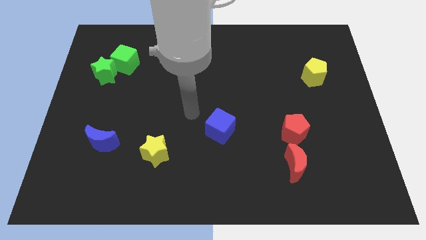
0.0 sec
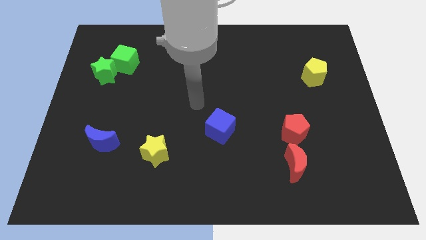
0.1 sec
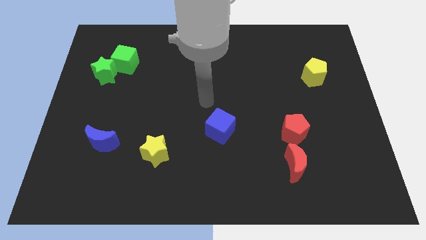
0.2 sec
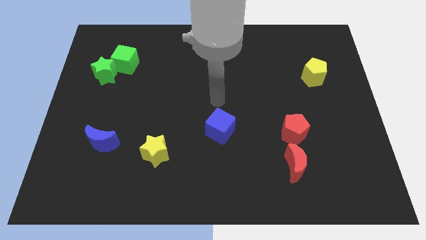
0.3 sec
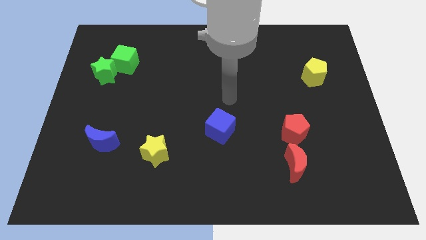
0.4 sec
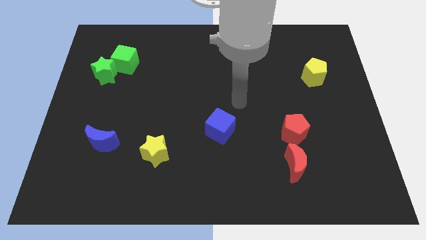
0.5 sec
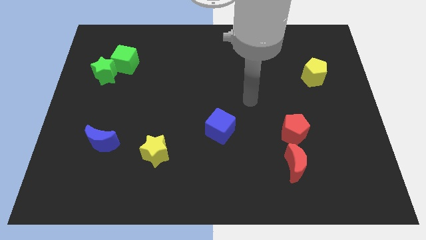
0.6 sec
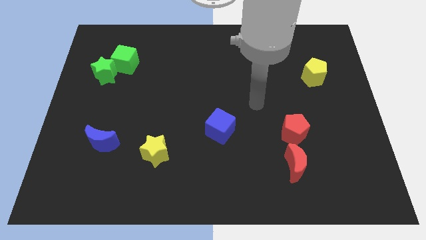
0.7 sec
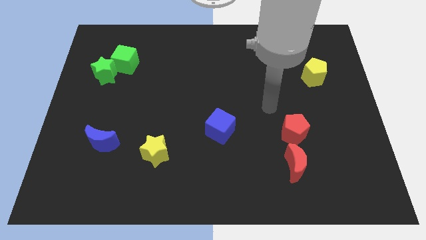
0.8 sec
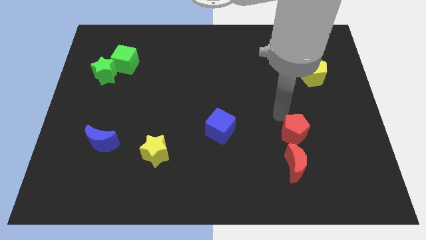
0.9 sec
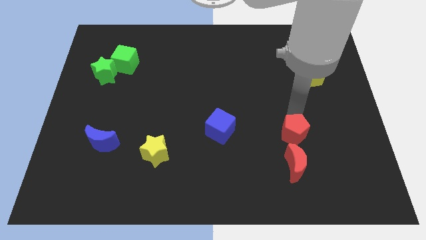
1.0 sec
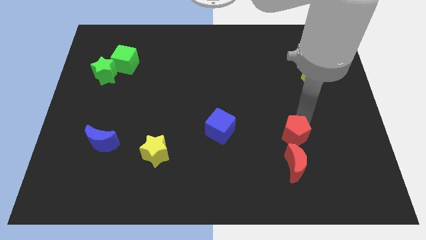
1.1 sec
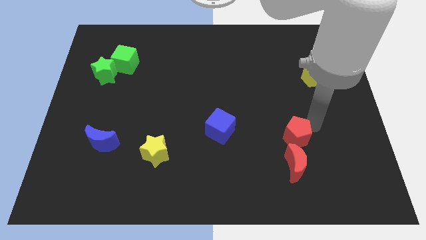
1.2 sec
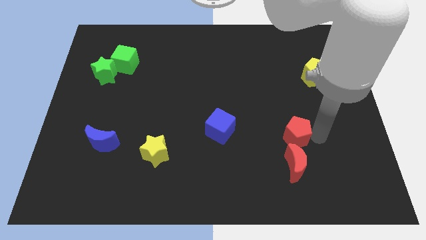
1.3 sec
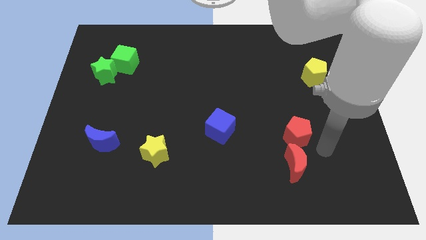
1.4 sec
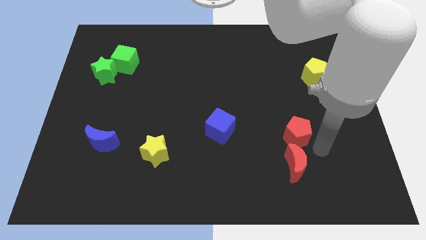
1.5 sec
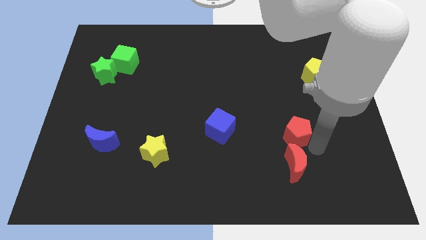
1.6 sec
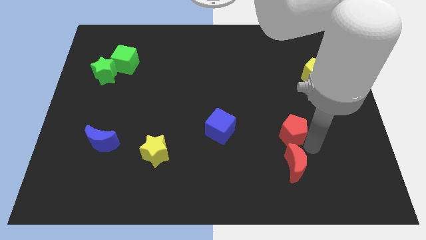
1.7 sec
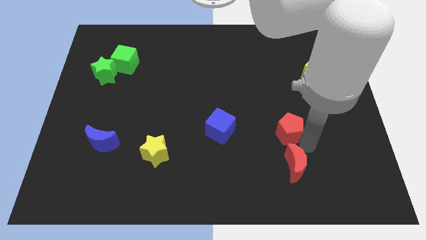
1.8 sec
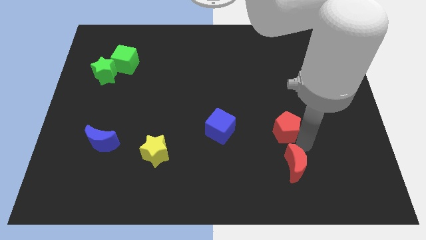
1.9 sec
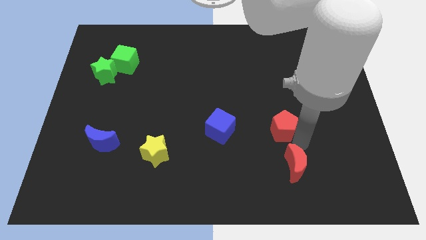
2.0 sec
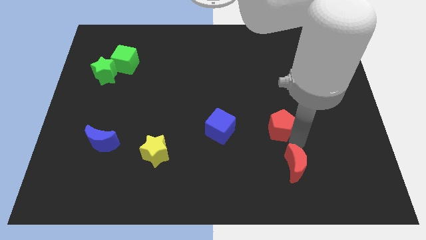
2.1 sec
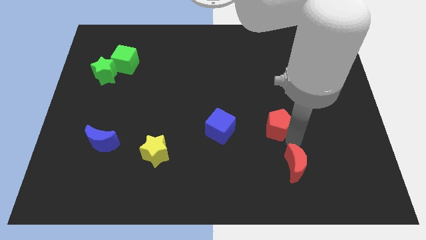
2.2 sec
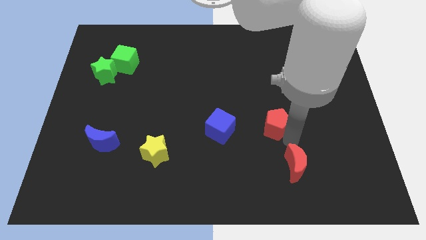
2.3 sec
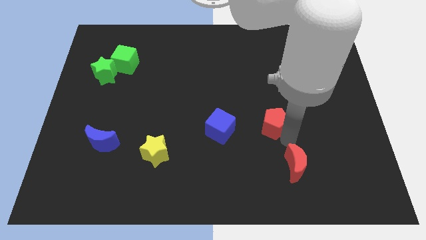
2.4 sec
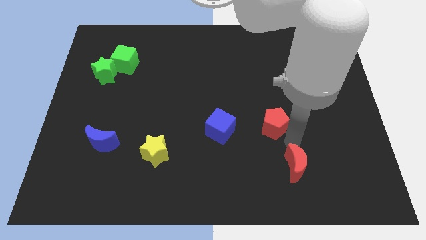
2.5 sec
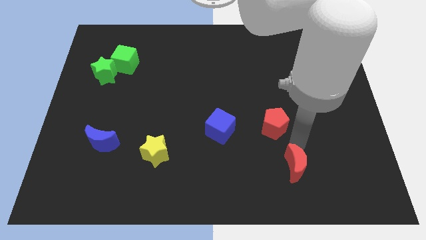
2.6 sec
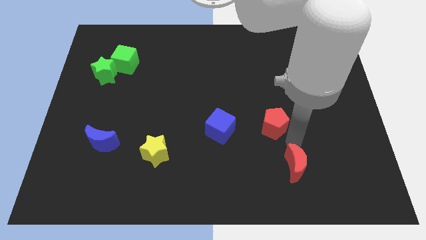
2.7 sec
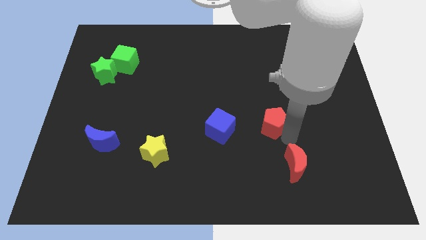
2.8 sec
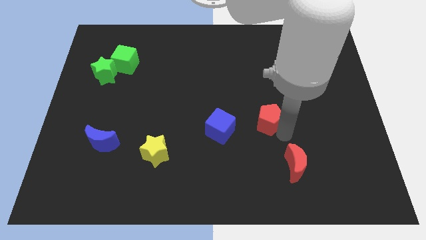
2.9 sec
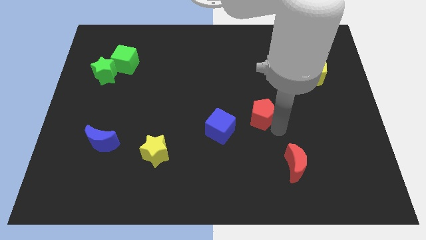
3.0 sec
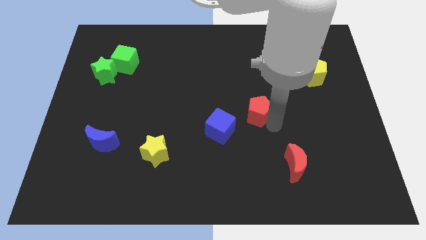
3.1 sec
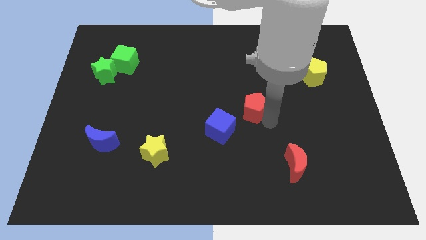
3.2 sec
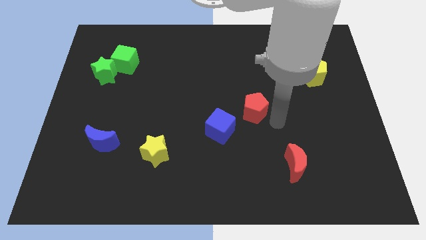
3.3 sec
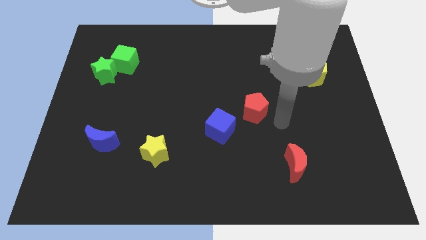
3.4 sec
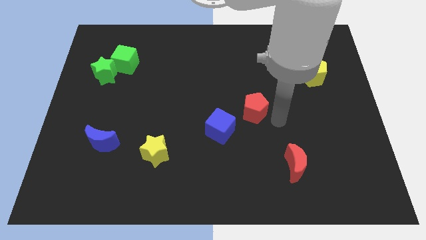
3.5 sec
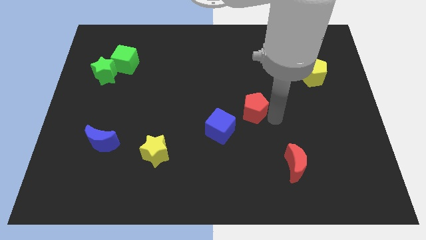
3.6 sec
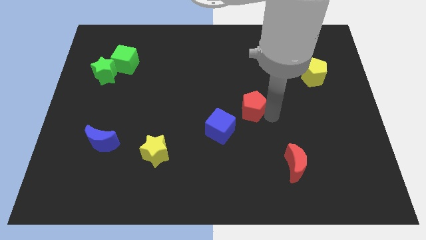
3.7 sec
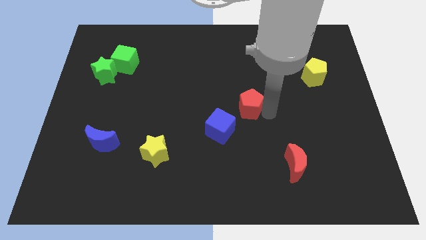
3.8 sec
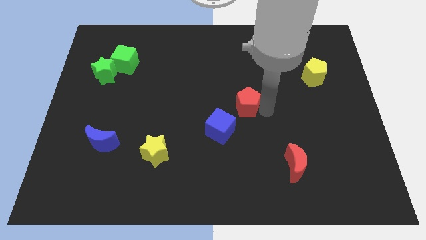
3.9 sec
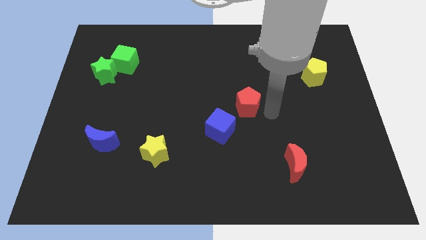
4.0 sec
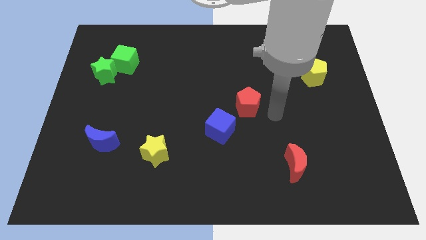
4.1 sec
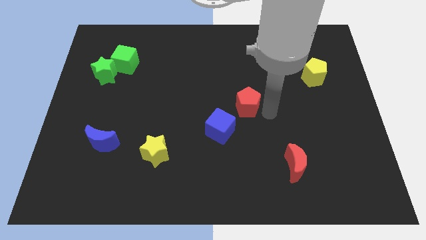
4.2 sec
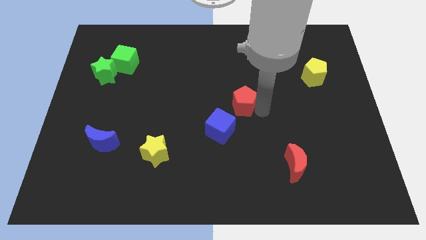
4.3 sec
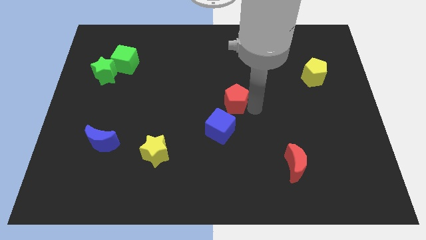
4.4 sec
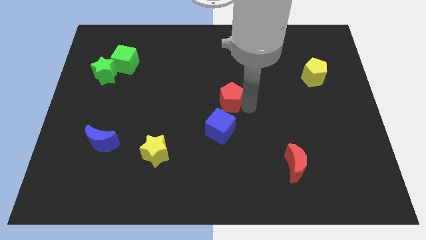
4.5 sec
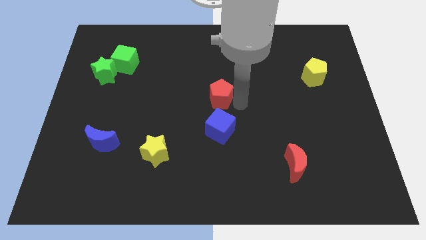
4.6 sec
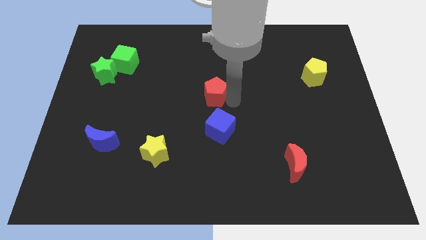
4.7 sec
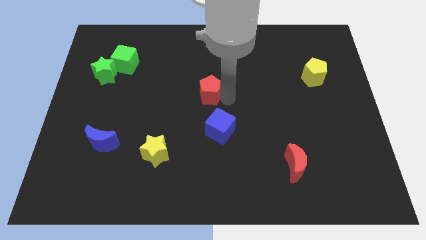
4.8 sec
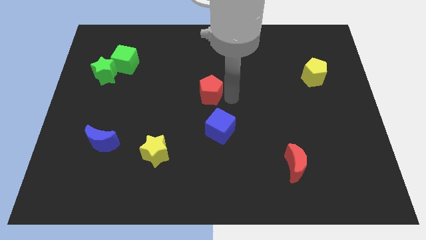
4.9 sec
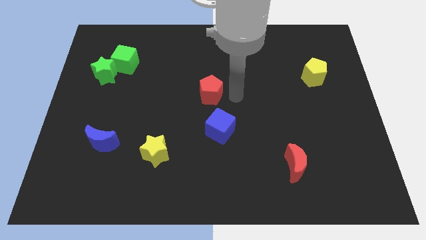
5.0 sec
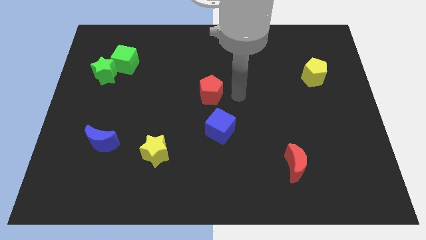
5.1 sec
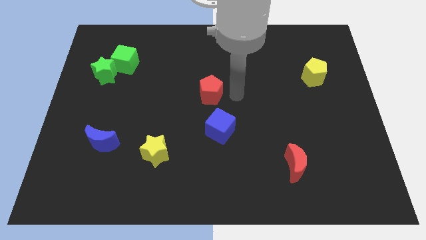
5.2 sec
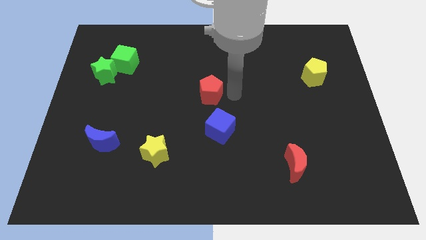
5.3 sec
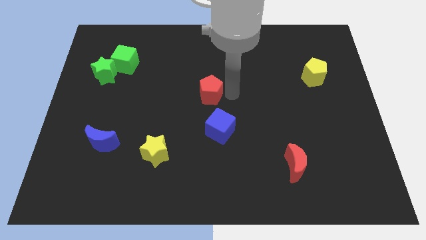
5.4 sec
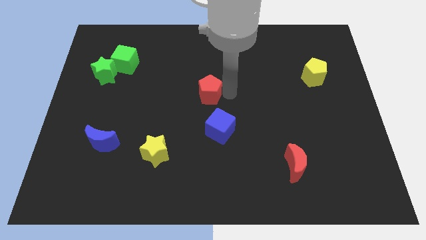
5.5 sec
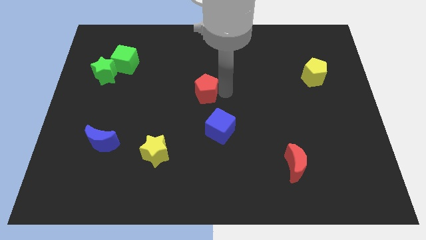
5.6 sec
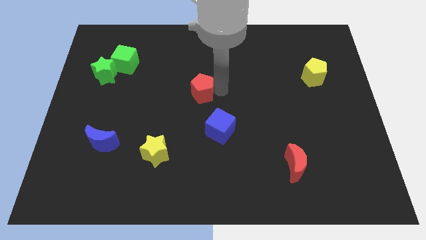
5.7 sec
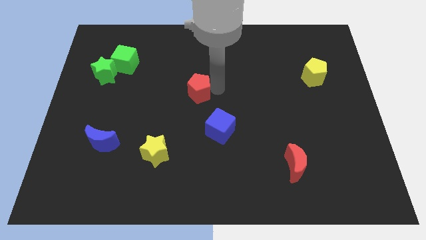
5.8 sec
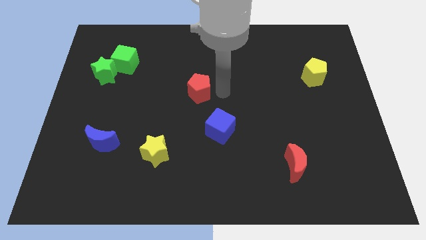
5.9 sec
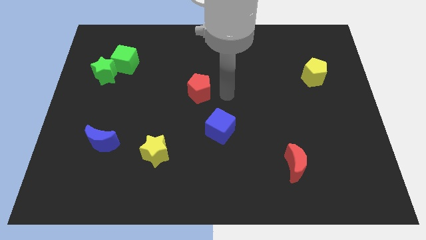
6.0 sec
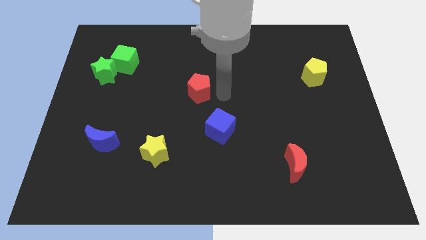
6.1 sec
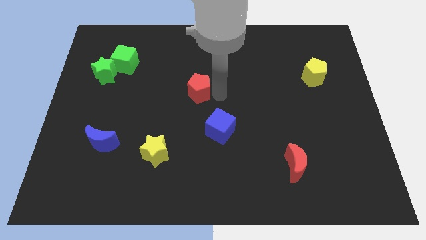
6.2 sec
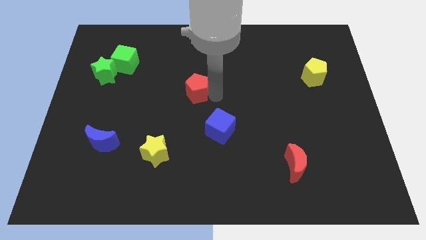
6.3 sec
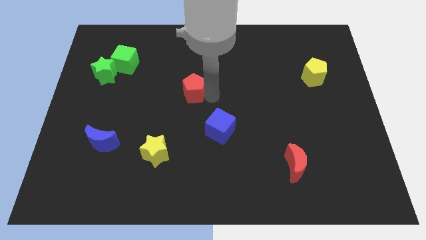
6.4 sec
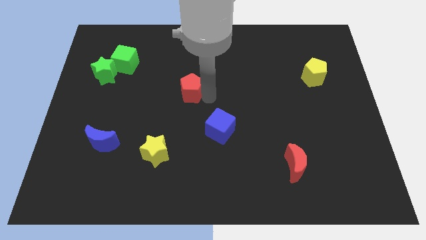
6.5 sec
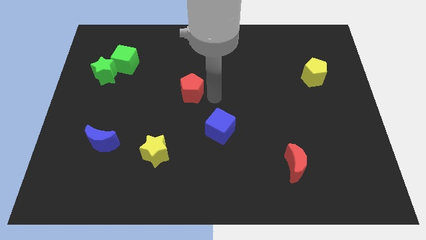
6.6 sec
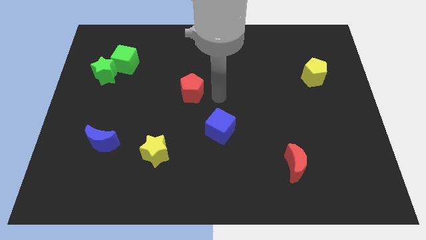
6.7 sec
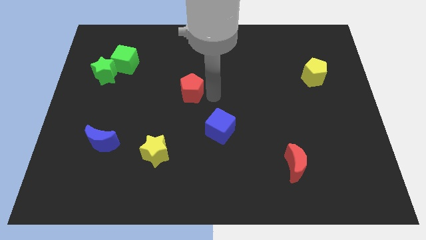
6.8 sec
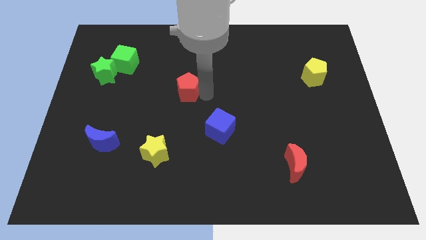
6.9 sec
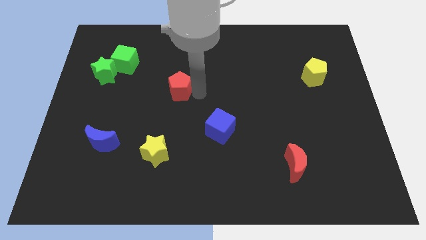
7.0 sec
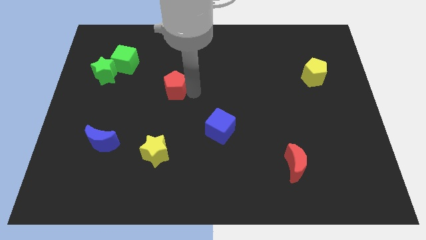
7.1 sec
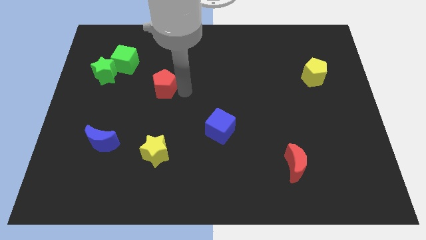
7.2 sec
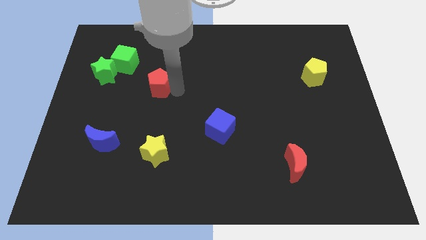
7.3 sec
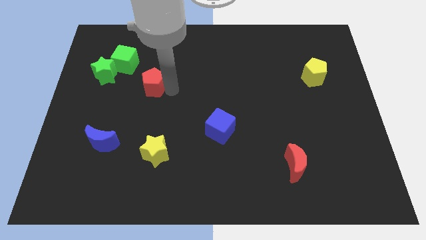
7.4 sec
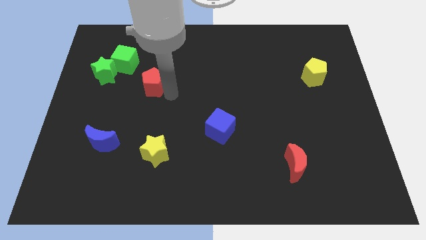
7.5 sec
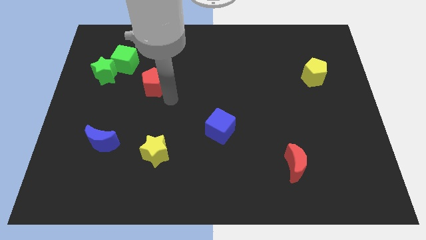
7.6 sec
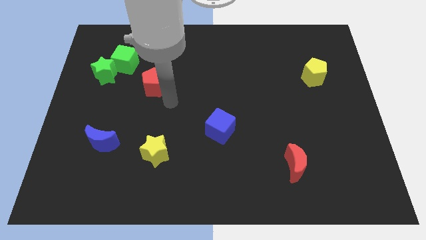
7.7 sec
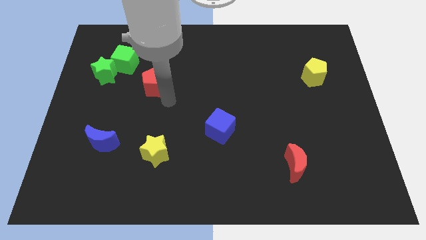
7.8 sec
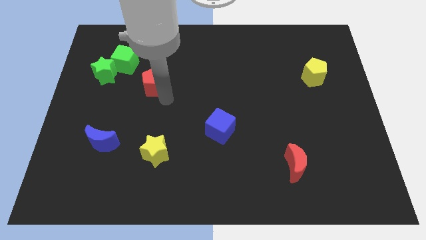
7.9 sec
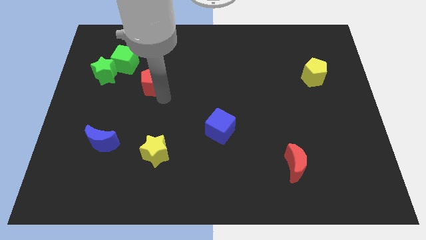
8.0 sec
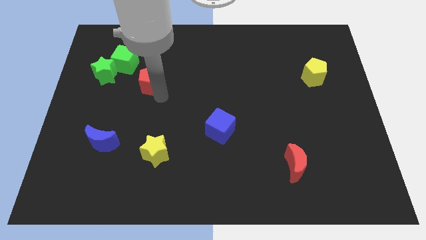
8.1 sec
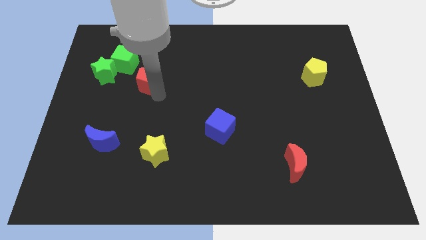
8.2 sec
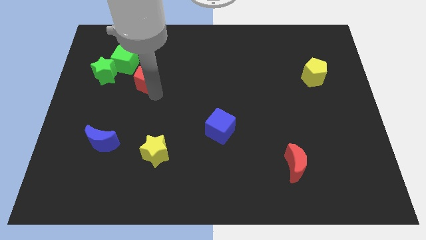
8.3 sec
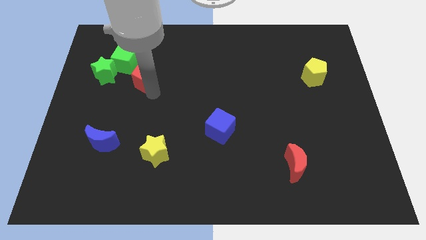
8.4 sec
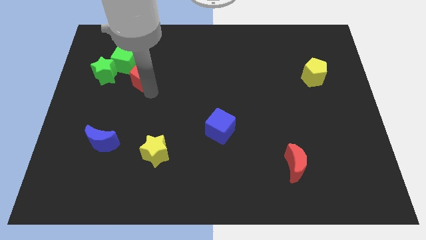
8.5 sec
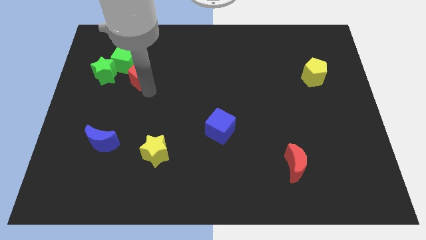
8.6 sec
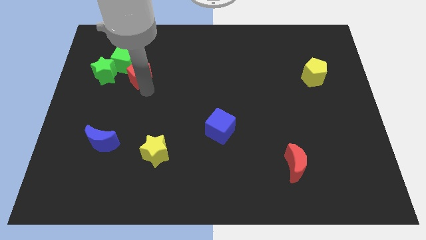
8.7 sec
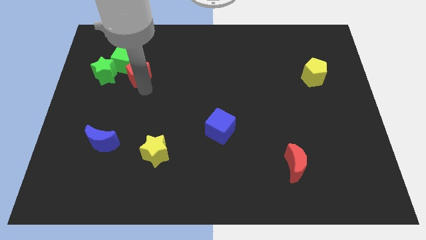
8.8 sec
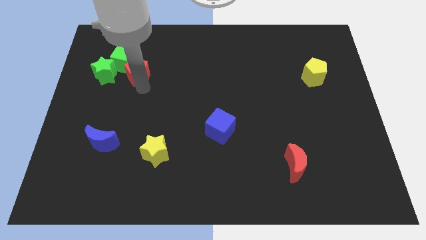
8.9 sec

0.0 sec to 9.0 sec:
push the red pentagon next to the green cube
